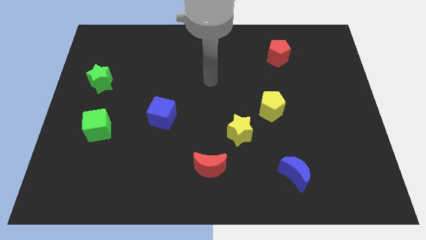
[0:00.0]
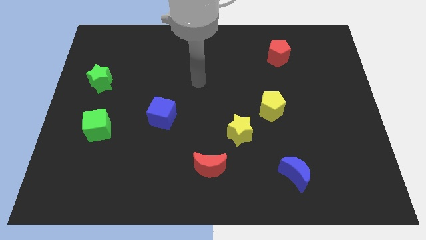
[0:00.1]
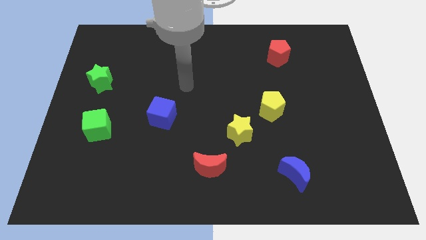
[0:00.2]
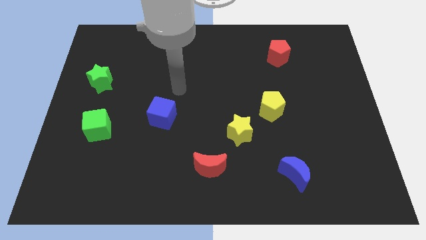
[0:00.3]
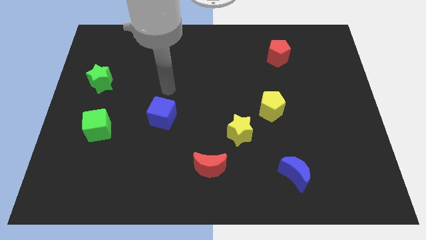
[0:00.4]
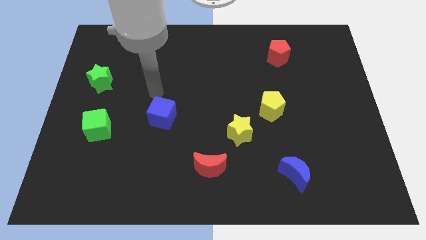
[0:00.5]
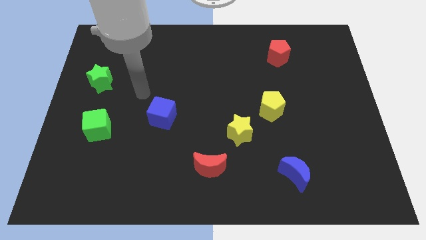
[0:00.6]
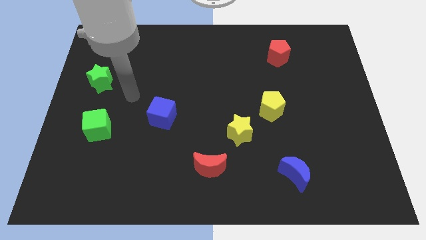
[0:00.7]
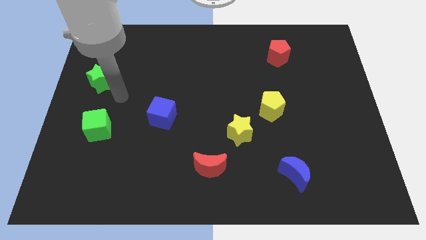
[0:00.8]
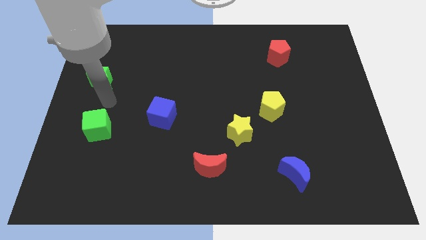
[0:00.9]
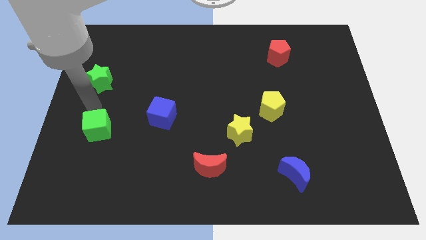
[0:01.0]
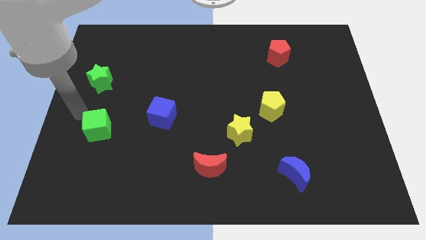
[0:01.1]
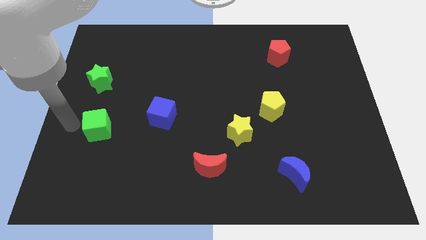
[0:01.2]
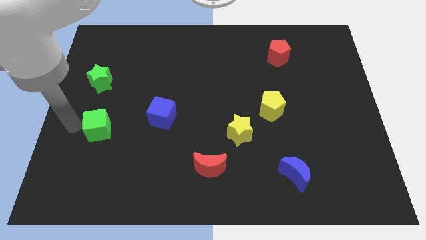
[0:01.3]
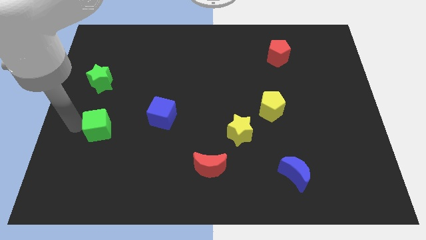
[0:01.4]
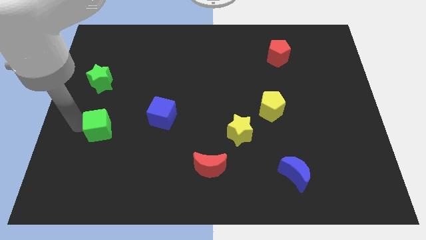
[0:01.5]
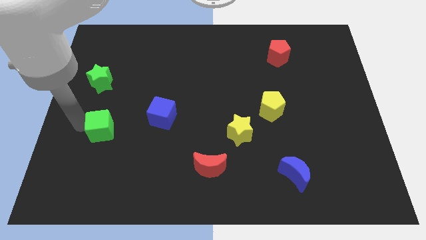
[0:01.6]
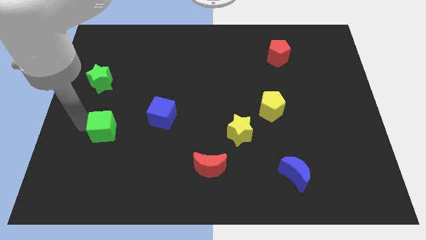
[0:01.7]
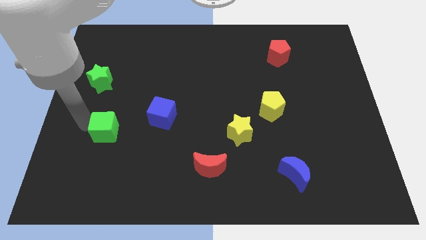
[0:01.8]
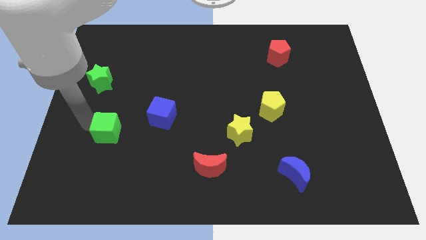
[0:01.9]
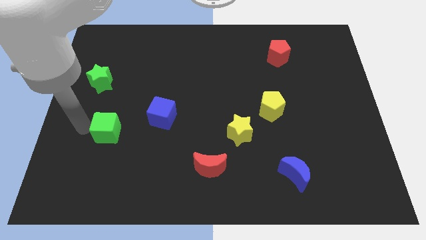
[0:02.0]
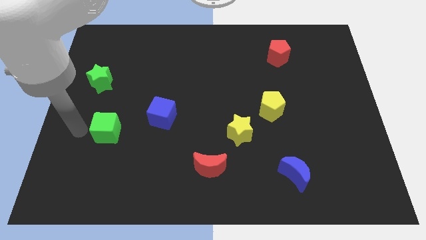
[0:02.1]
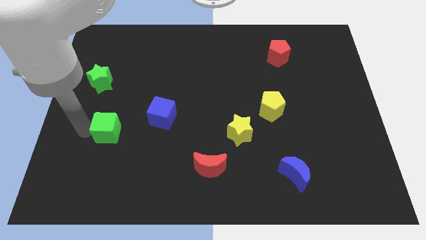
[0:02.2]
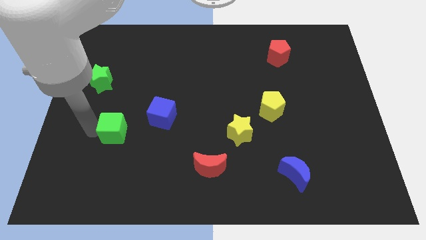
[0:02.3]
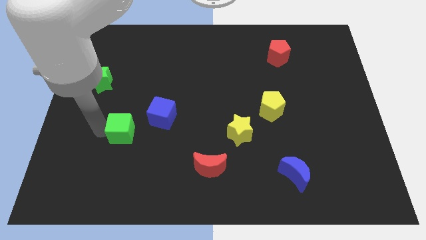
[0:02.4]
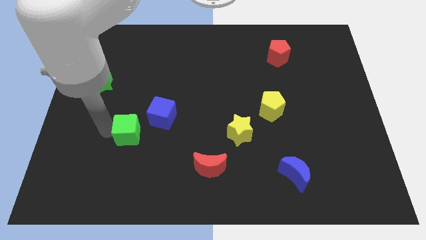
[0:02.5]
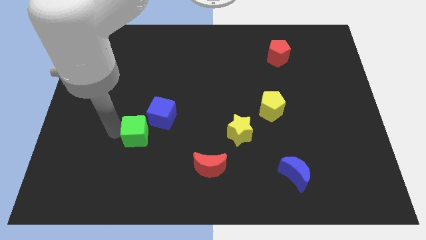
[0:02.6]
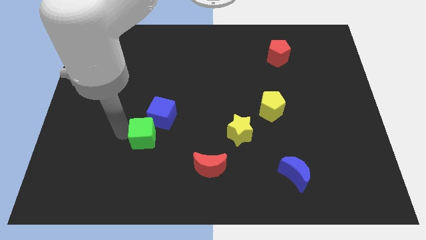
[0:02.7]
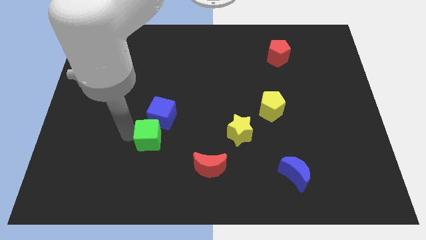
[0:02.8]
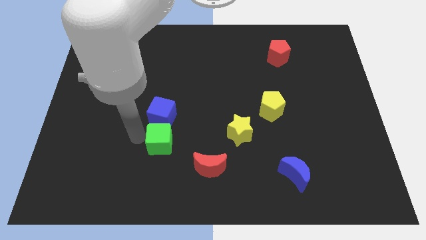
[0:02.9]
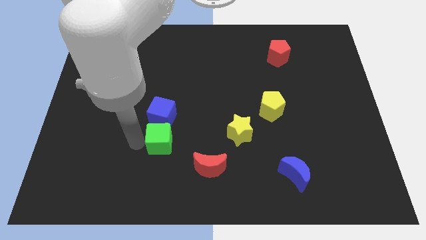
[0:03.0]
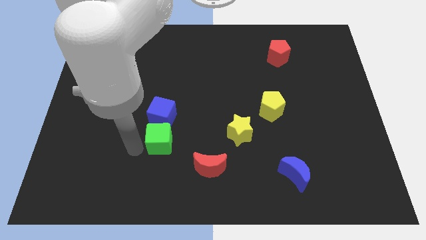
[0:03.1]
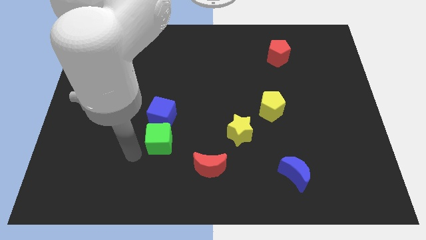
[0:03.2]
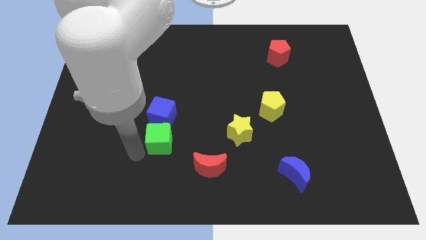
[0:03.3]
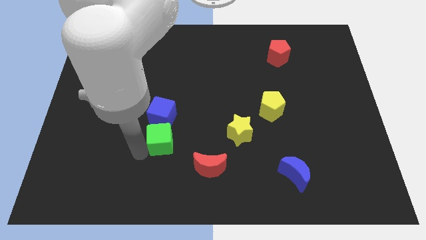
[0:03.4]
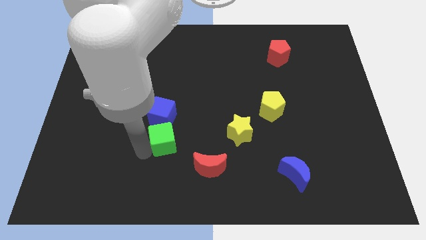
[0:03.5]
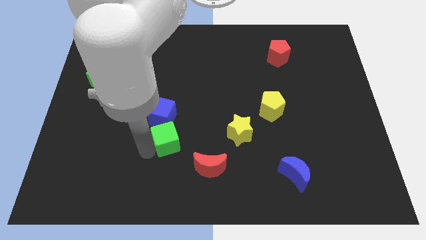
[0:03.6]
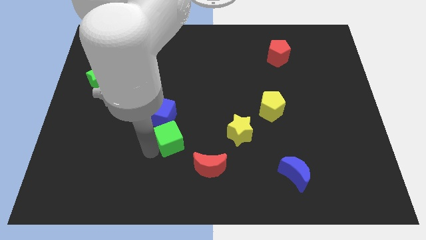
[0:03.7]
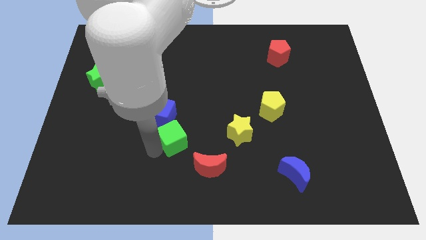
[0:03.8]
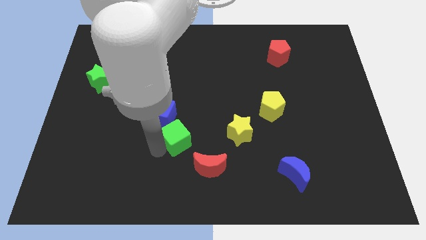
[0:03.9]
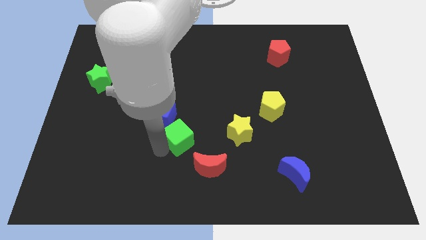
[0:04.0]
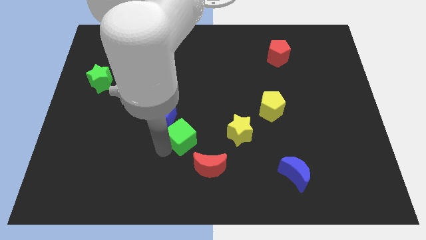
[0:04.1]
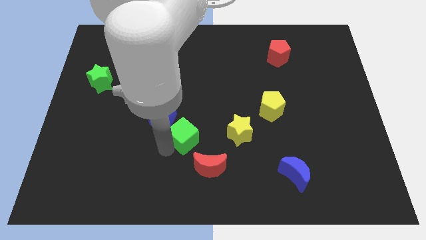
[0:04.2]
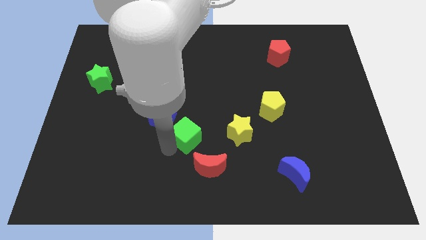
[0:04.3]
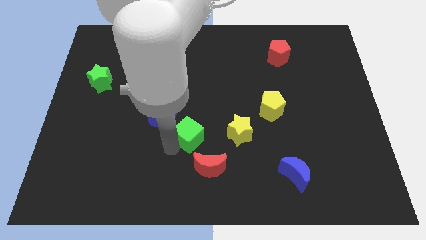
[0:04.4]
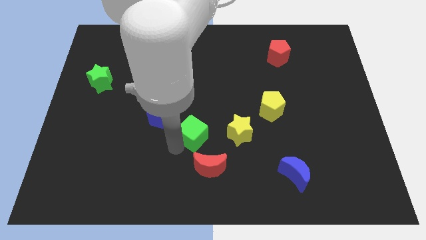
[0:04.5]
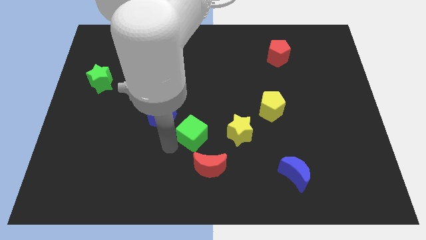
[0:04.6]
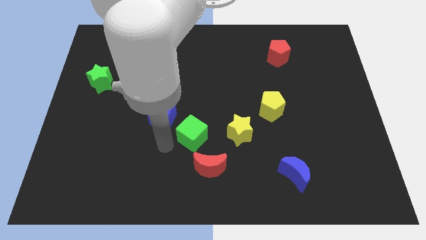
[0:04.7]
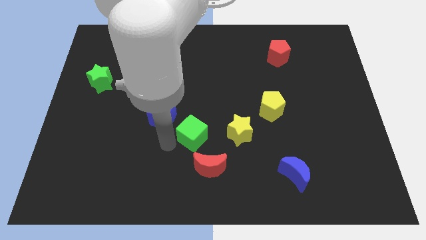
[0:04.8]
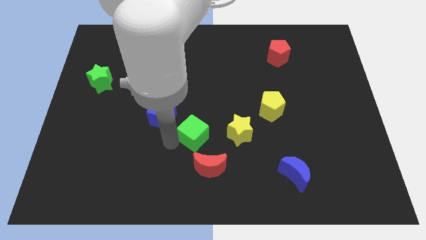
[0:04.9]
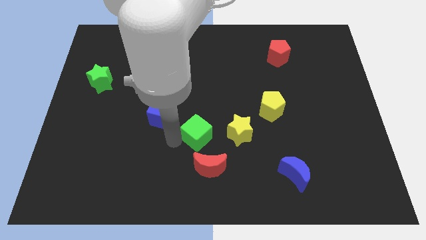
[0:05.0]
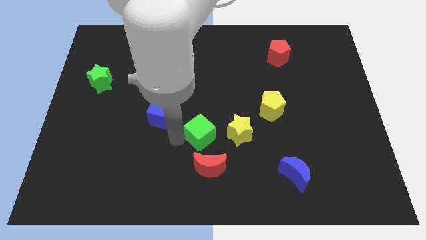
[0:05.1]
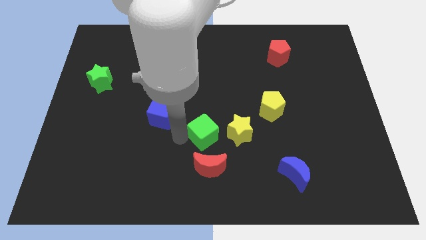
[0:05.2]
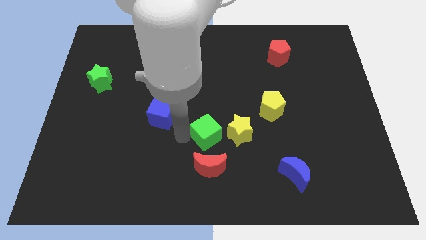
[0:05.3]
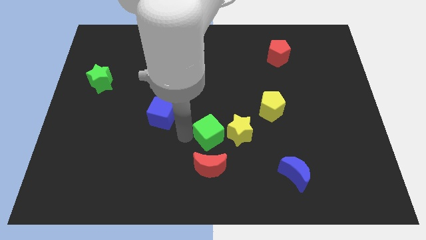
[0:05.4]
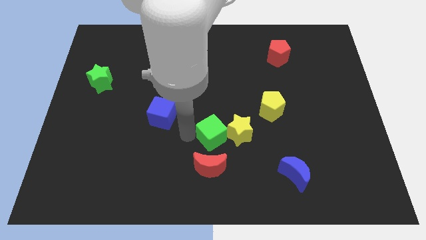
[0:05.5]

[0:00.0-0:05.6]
move the green cube close to the yellow star

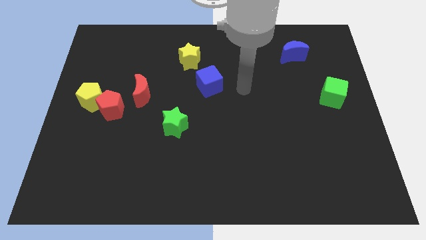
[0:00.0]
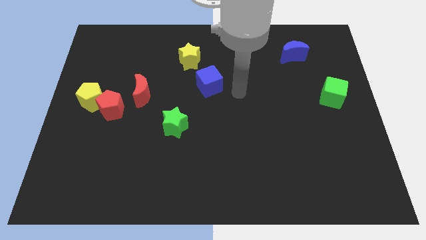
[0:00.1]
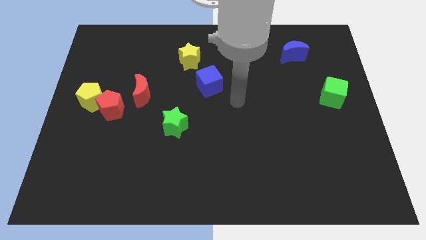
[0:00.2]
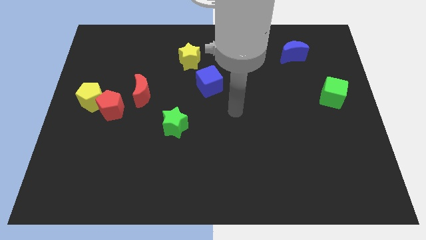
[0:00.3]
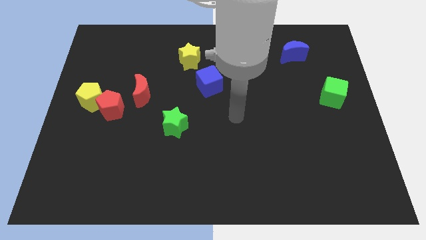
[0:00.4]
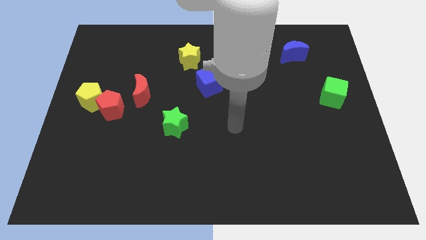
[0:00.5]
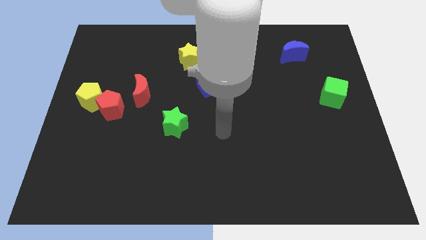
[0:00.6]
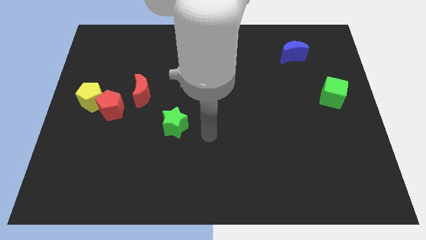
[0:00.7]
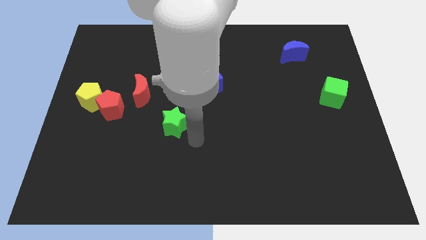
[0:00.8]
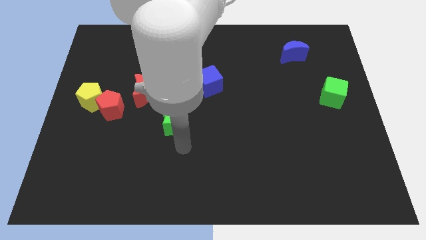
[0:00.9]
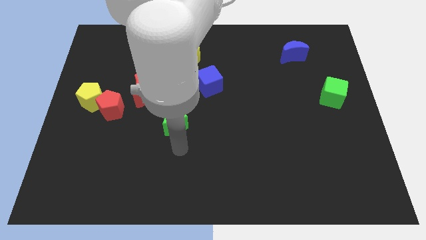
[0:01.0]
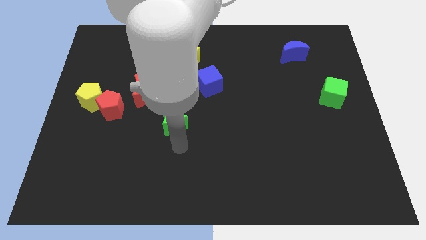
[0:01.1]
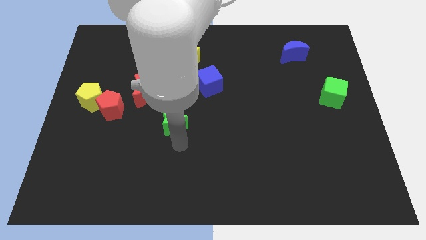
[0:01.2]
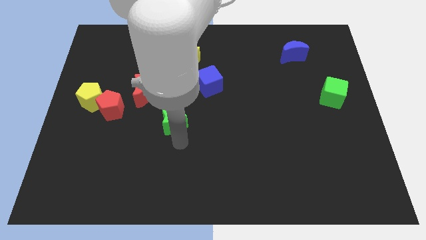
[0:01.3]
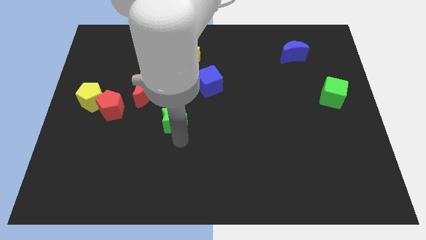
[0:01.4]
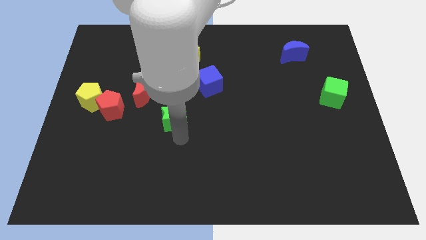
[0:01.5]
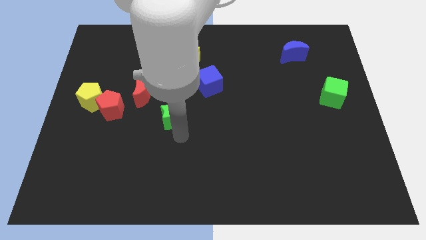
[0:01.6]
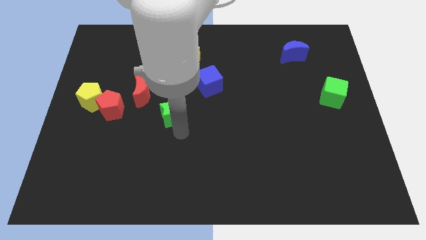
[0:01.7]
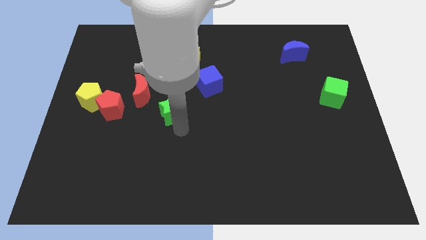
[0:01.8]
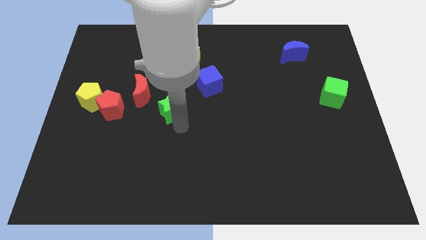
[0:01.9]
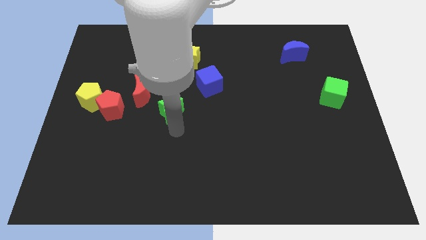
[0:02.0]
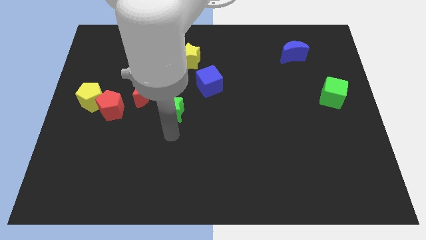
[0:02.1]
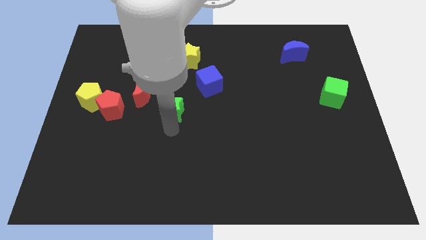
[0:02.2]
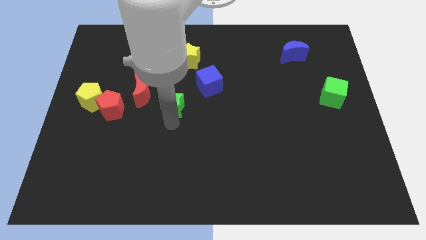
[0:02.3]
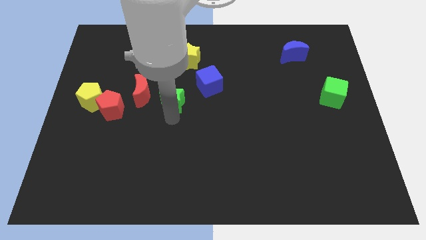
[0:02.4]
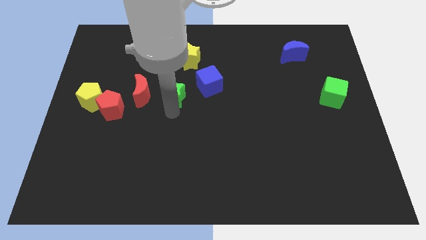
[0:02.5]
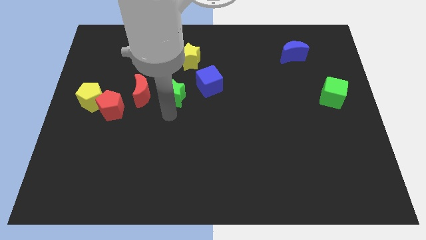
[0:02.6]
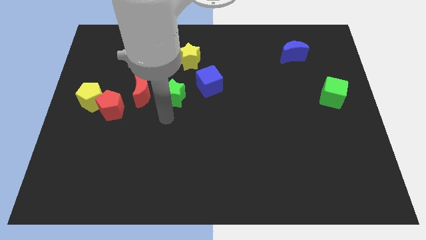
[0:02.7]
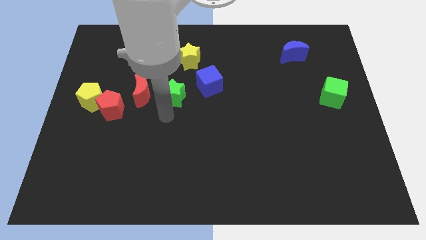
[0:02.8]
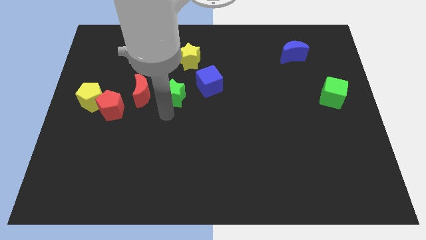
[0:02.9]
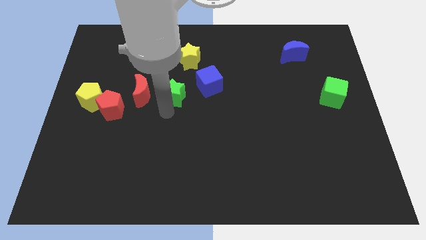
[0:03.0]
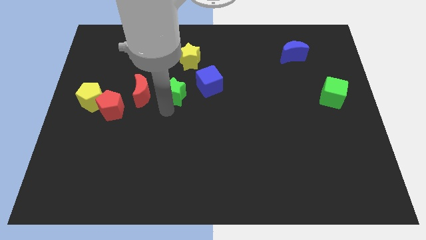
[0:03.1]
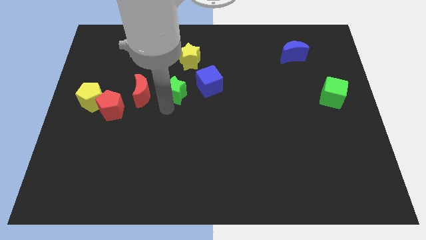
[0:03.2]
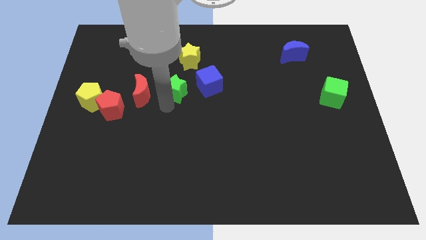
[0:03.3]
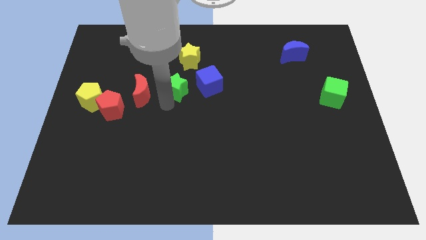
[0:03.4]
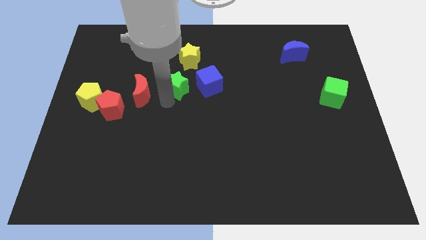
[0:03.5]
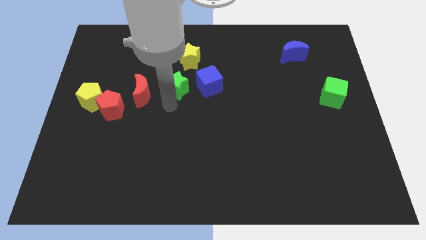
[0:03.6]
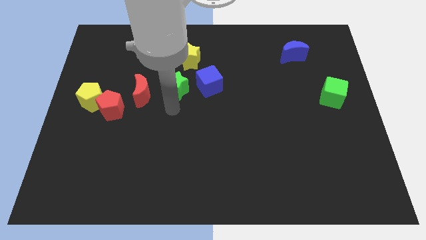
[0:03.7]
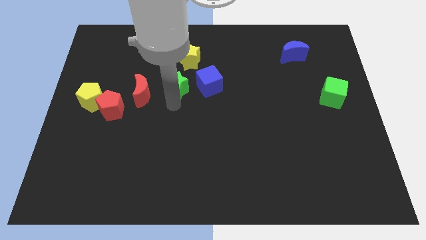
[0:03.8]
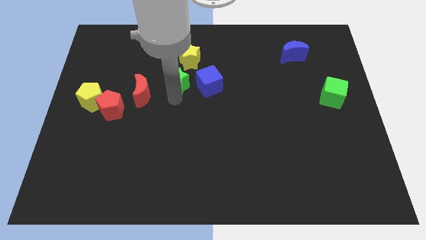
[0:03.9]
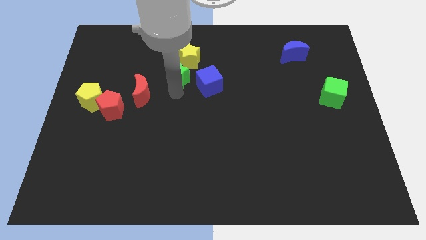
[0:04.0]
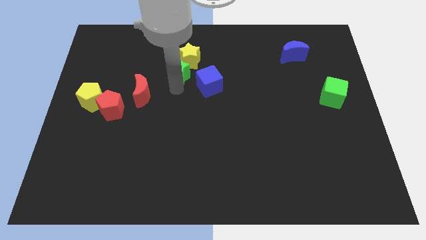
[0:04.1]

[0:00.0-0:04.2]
put the green star close to the yellow star
